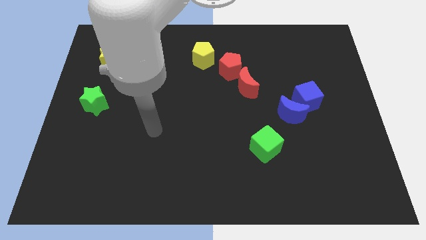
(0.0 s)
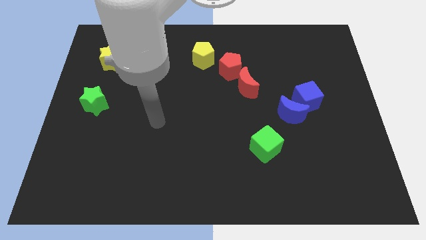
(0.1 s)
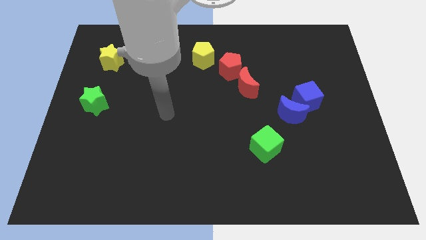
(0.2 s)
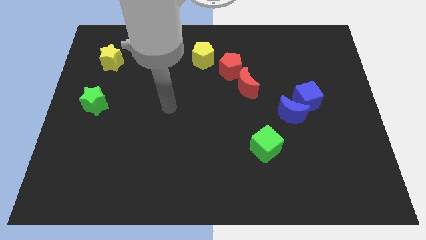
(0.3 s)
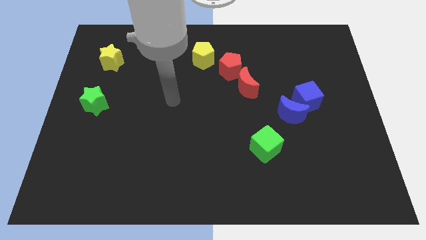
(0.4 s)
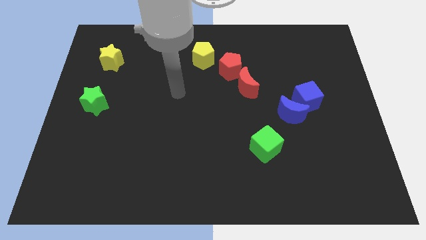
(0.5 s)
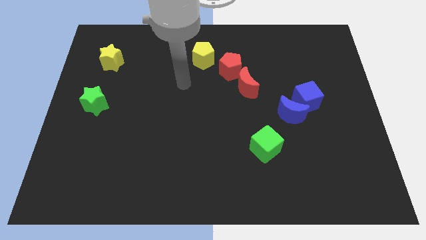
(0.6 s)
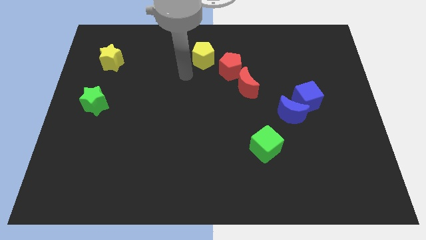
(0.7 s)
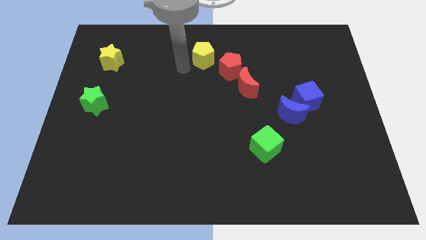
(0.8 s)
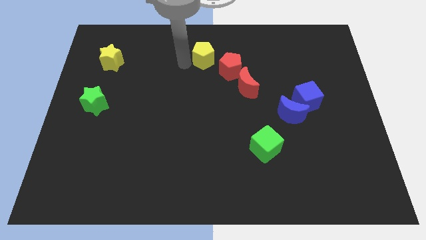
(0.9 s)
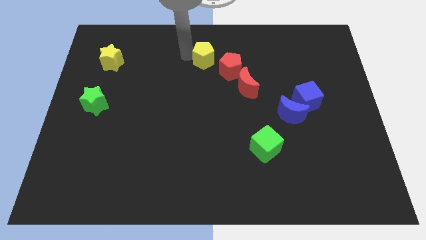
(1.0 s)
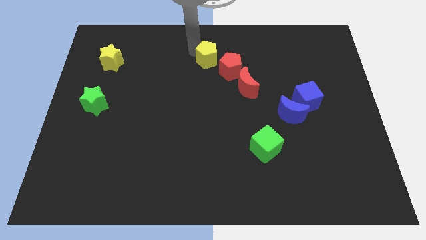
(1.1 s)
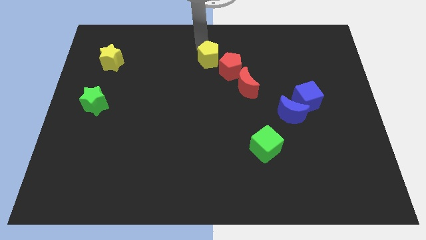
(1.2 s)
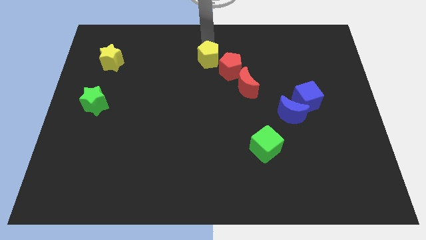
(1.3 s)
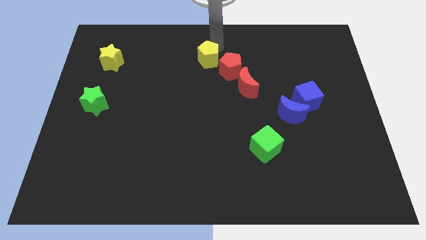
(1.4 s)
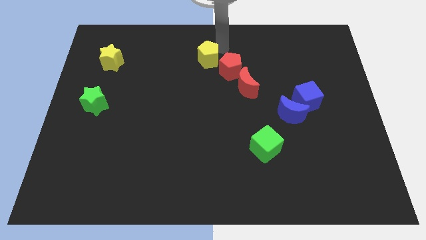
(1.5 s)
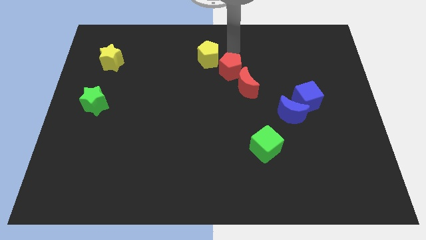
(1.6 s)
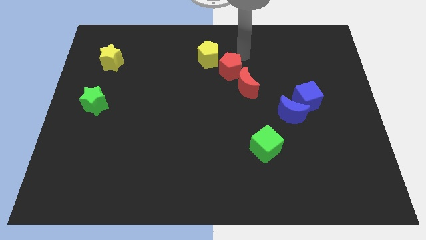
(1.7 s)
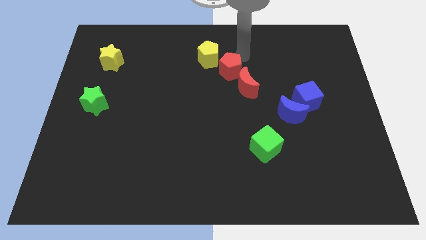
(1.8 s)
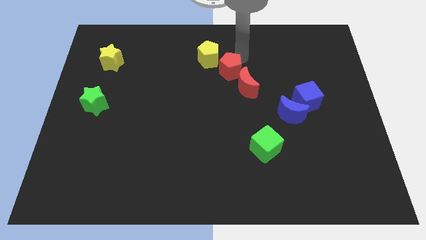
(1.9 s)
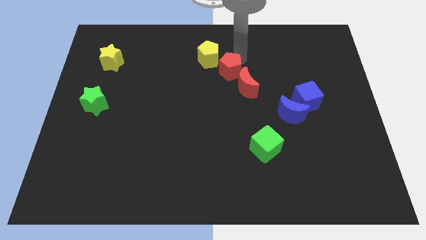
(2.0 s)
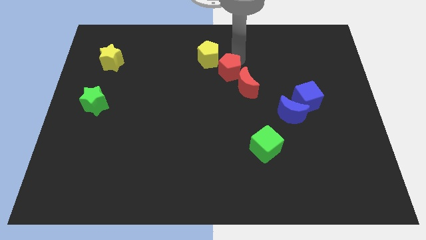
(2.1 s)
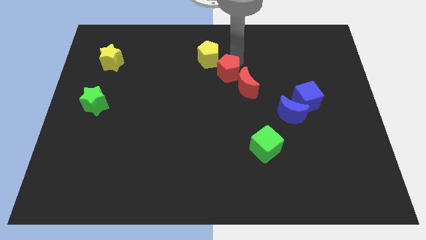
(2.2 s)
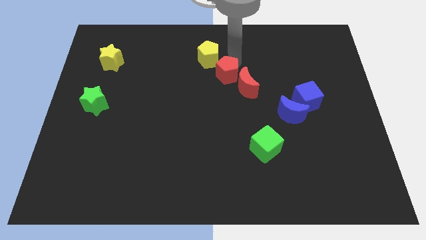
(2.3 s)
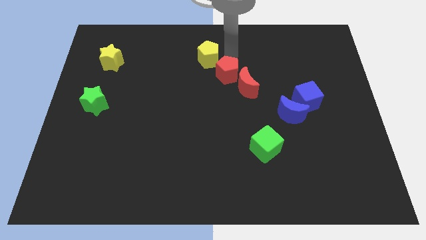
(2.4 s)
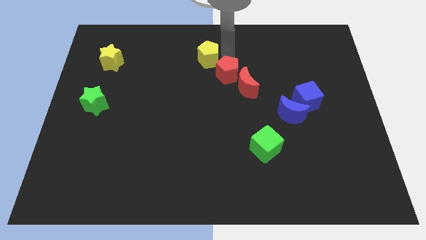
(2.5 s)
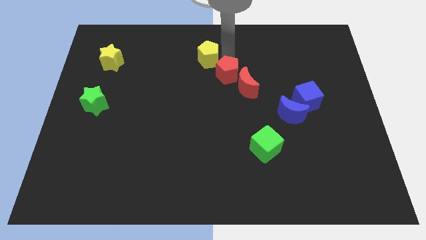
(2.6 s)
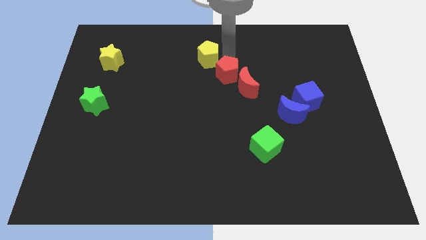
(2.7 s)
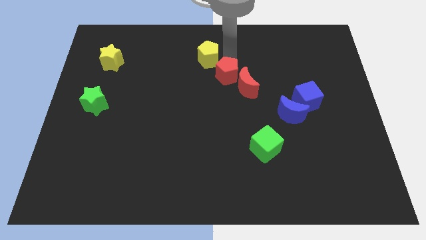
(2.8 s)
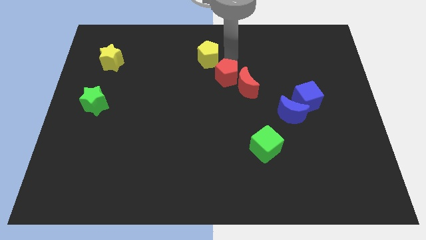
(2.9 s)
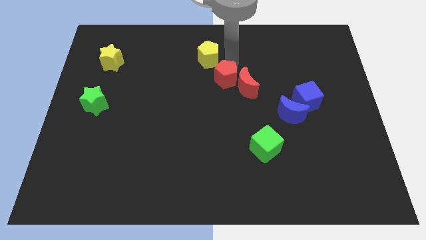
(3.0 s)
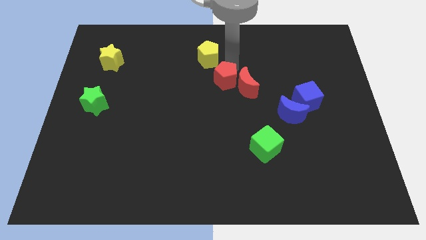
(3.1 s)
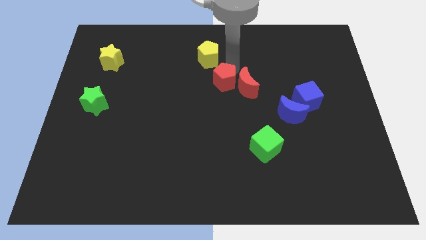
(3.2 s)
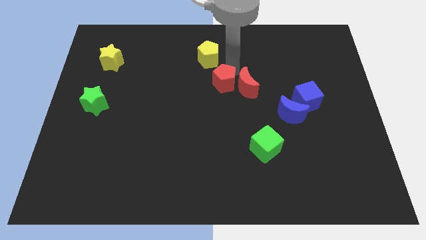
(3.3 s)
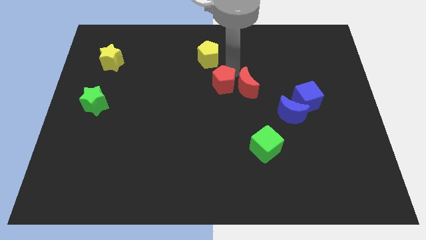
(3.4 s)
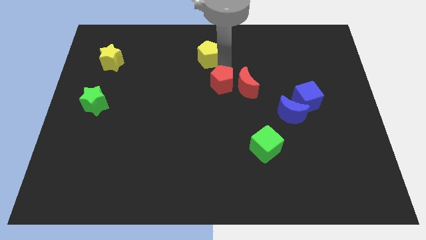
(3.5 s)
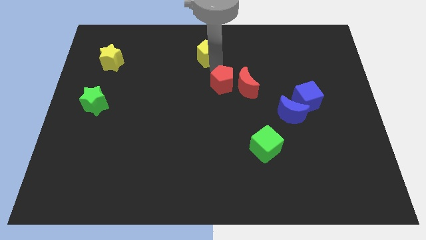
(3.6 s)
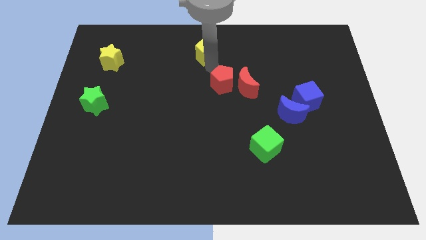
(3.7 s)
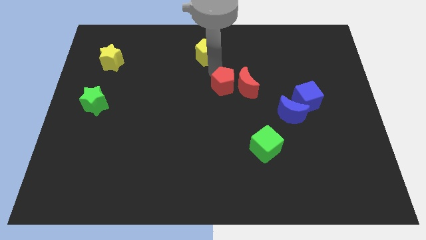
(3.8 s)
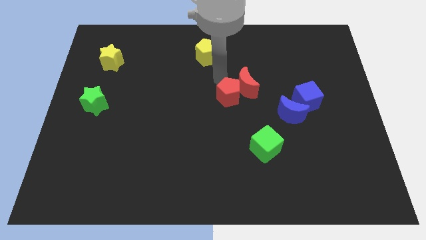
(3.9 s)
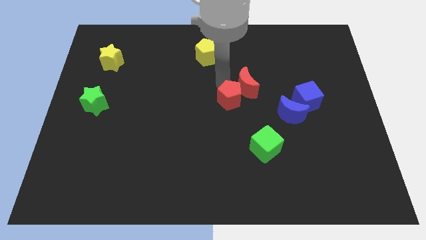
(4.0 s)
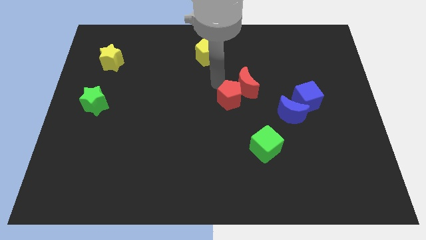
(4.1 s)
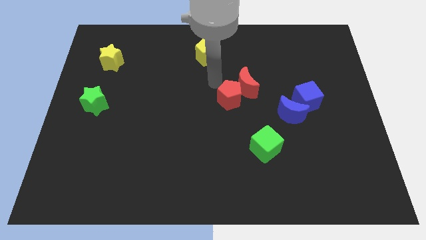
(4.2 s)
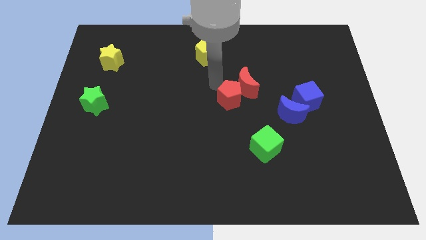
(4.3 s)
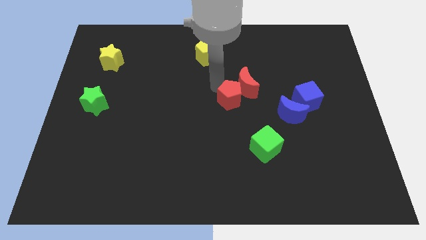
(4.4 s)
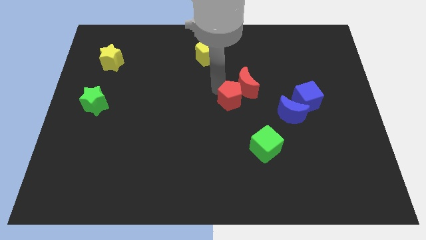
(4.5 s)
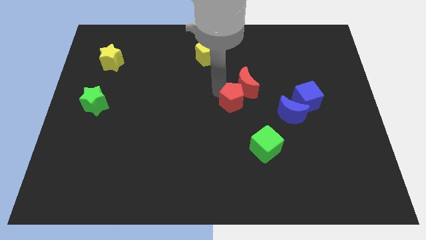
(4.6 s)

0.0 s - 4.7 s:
put the red pentagon to the left side of the blue moon

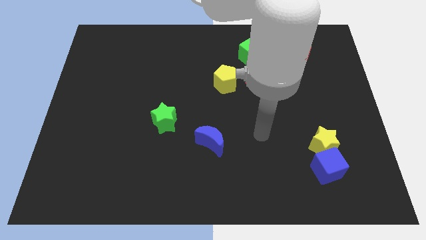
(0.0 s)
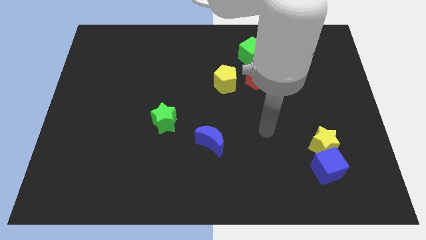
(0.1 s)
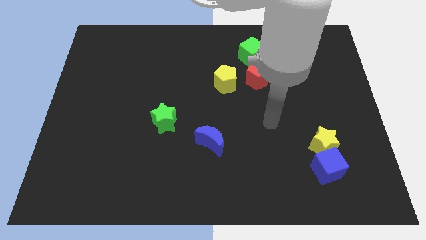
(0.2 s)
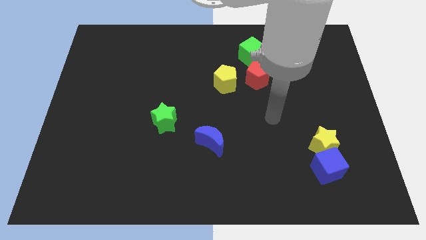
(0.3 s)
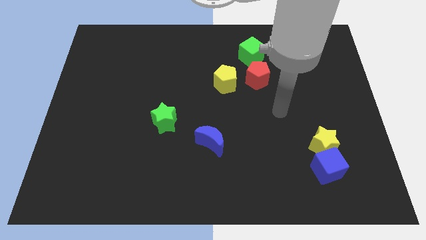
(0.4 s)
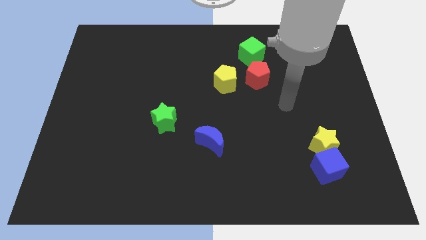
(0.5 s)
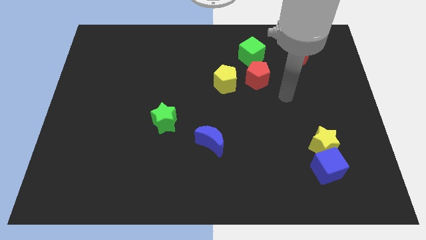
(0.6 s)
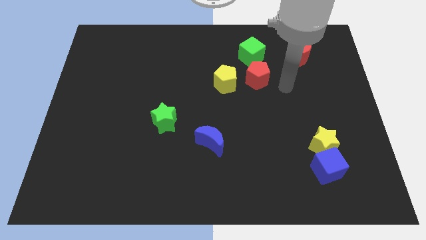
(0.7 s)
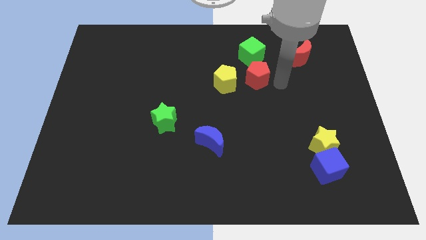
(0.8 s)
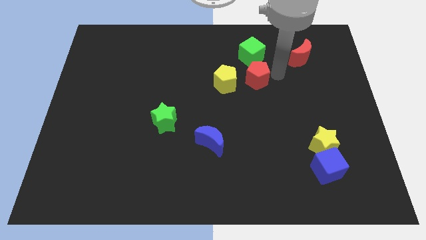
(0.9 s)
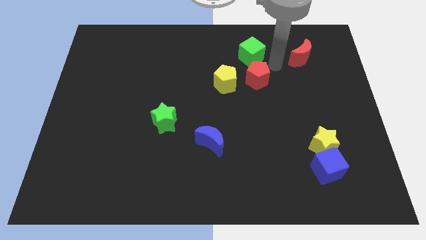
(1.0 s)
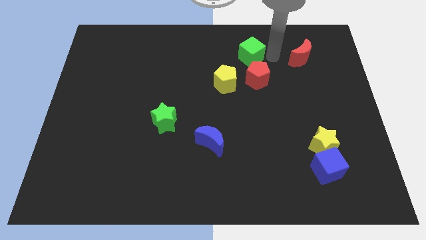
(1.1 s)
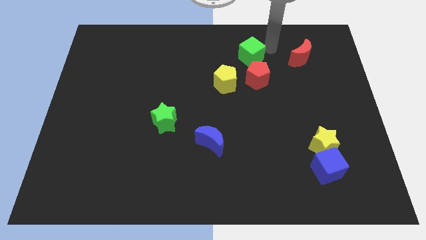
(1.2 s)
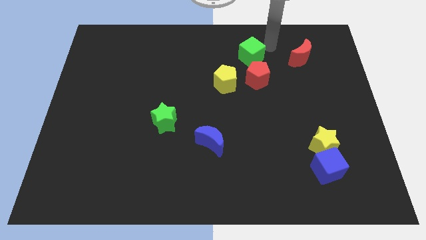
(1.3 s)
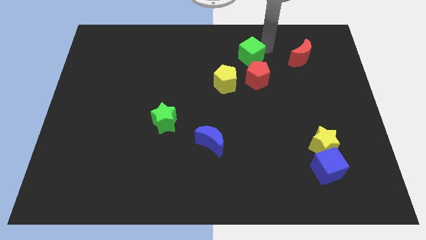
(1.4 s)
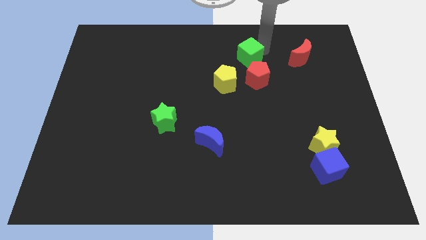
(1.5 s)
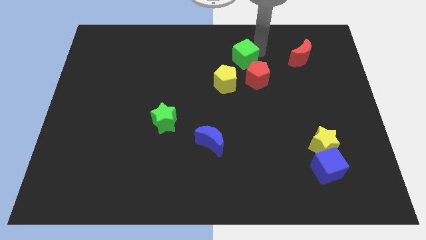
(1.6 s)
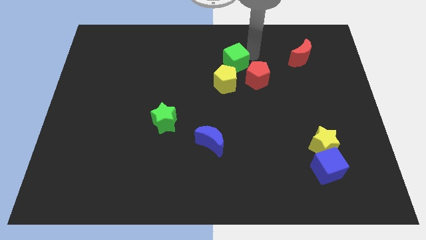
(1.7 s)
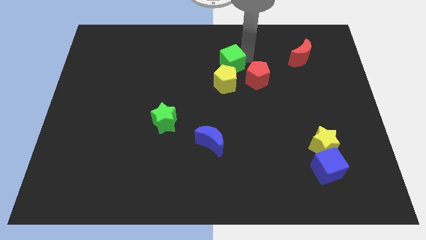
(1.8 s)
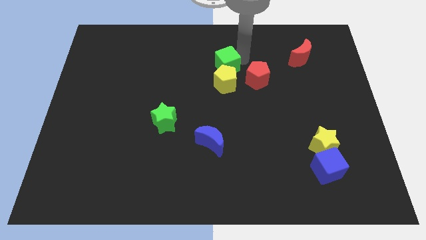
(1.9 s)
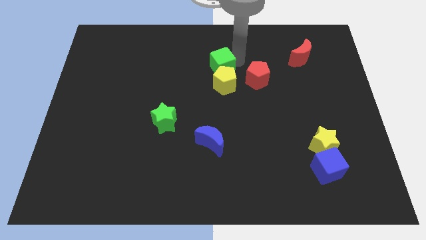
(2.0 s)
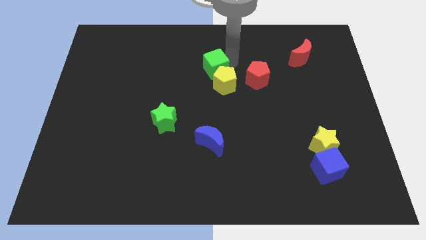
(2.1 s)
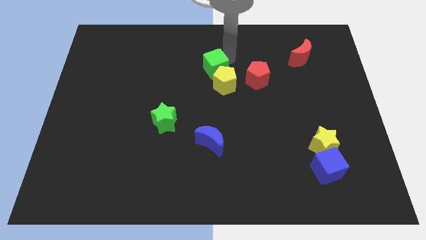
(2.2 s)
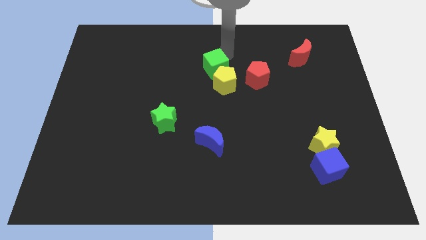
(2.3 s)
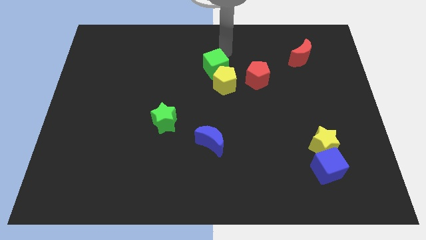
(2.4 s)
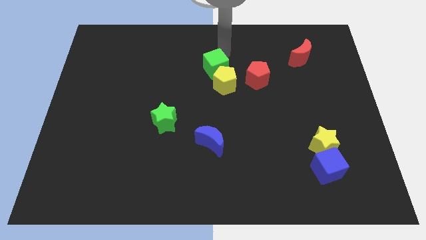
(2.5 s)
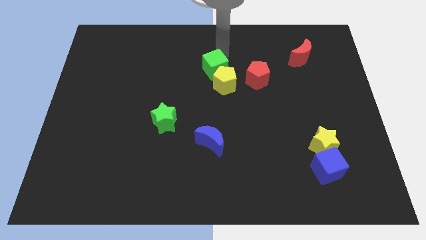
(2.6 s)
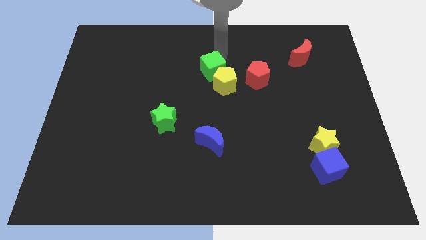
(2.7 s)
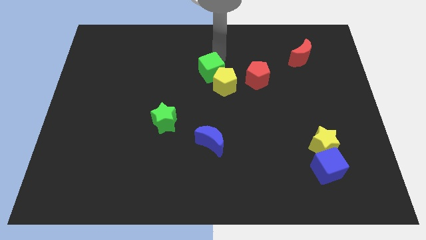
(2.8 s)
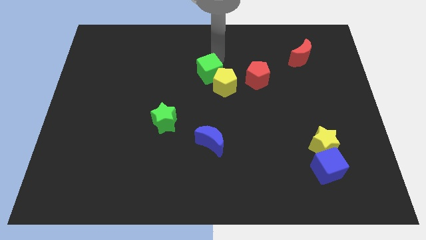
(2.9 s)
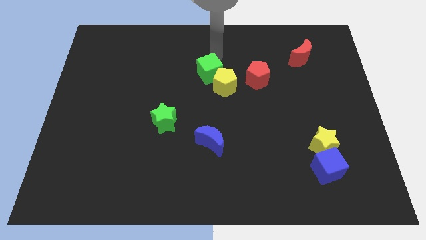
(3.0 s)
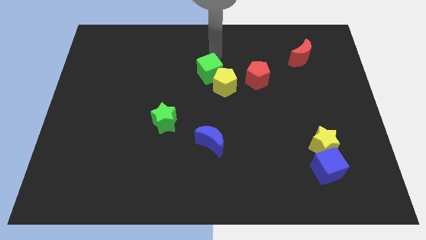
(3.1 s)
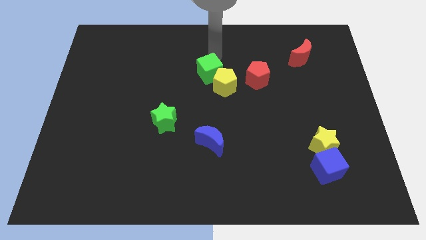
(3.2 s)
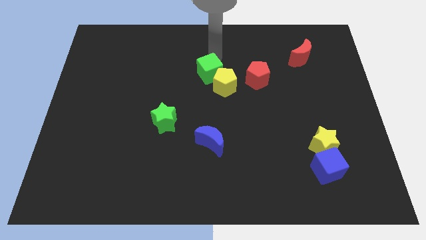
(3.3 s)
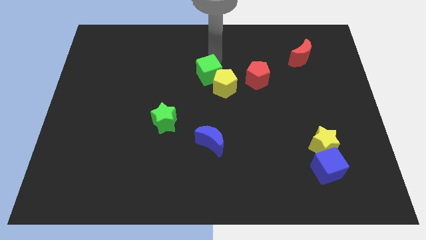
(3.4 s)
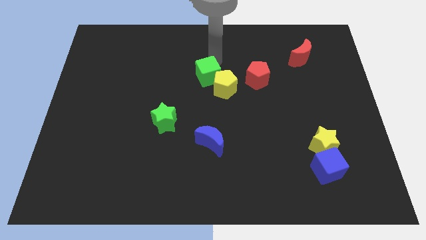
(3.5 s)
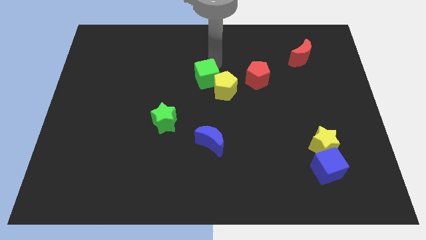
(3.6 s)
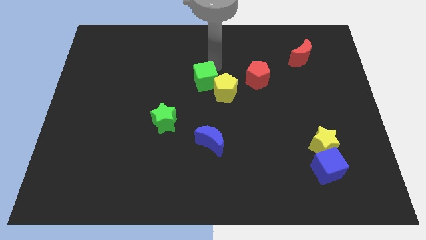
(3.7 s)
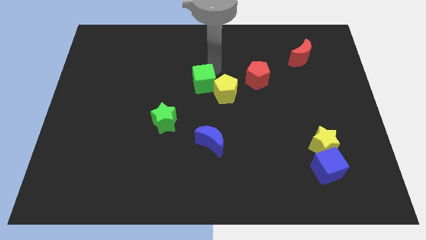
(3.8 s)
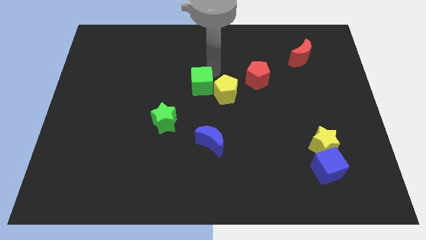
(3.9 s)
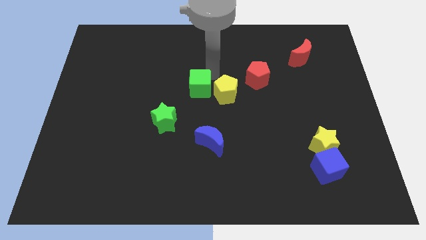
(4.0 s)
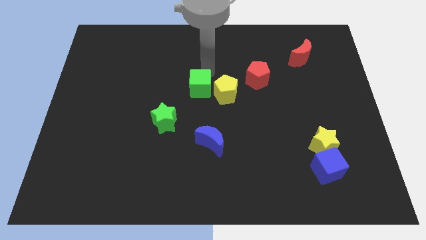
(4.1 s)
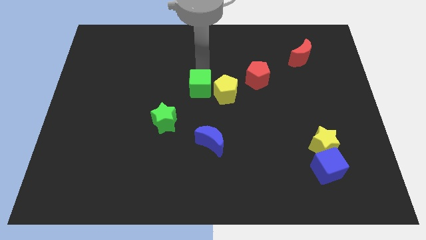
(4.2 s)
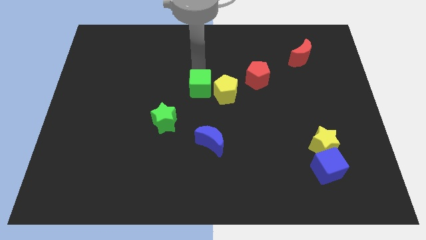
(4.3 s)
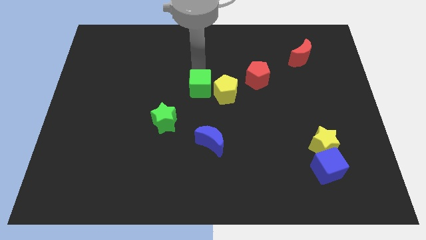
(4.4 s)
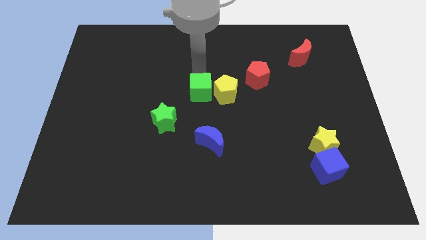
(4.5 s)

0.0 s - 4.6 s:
slide the green cube to the bottom left side of the yellow pentagon
